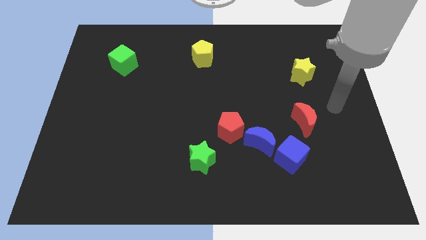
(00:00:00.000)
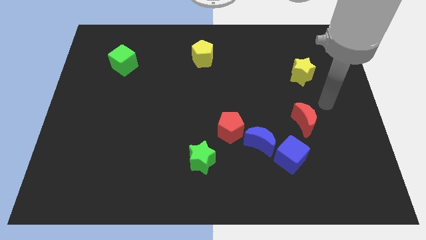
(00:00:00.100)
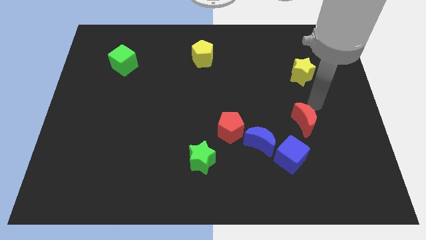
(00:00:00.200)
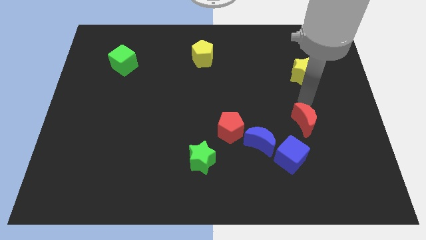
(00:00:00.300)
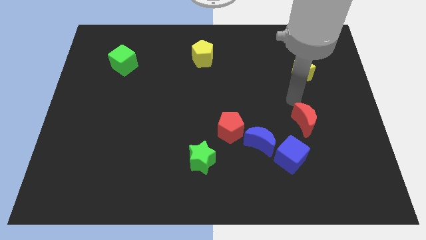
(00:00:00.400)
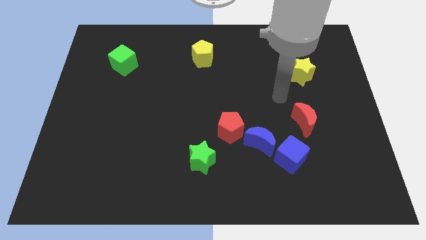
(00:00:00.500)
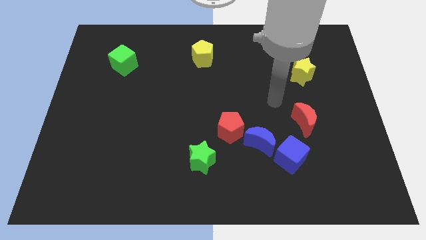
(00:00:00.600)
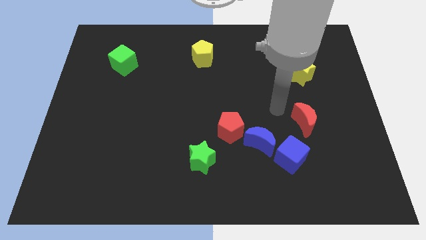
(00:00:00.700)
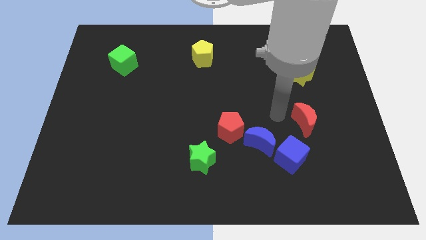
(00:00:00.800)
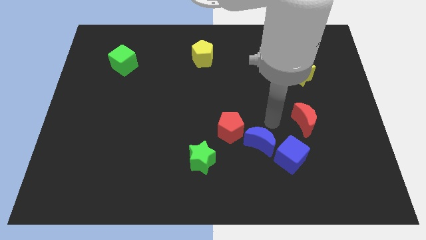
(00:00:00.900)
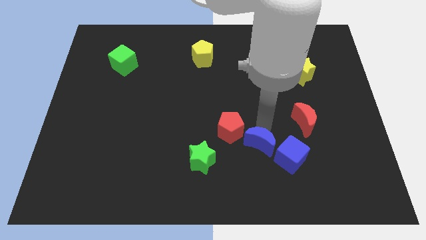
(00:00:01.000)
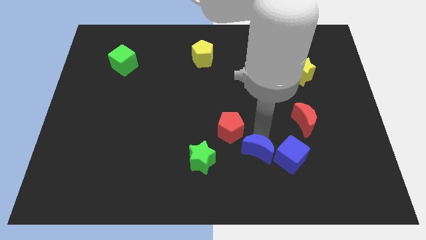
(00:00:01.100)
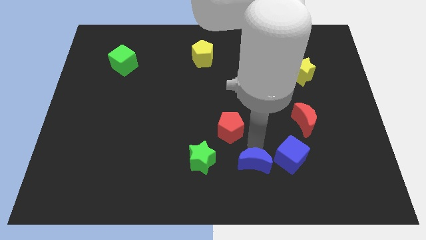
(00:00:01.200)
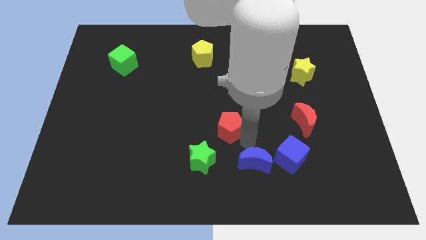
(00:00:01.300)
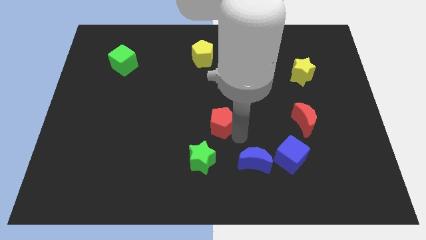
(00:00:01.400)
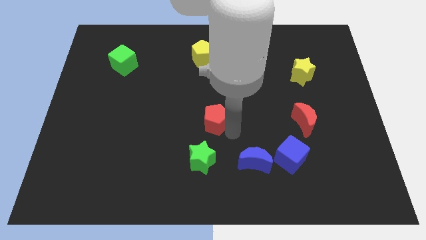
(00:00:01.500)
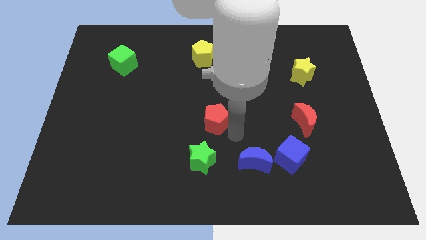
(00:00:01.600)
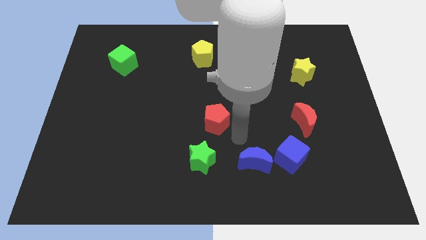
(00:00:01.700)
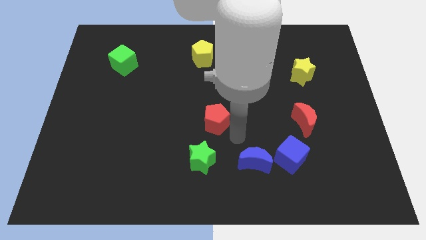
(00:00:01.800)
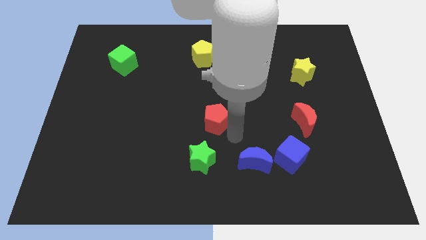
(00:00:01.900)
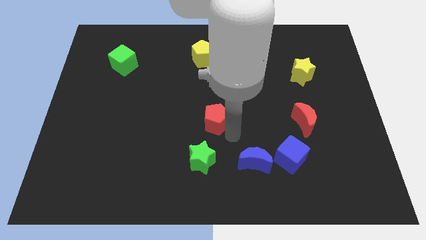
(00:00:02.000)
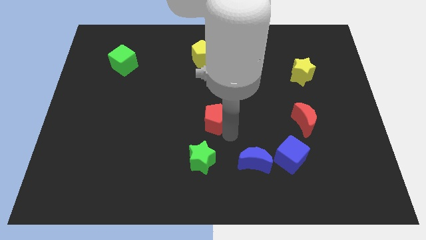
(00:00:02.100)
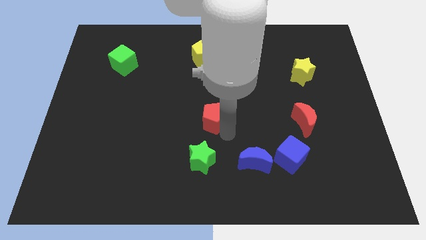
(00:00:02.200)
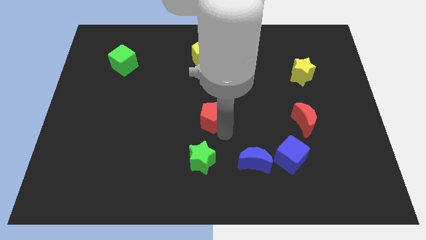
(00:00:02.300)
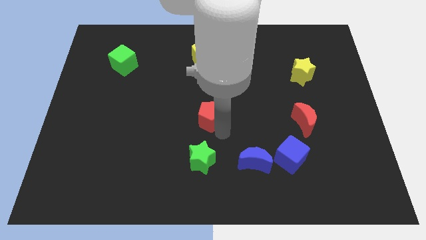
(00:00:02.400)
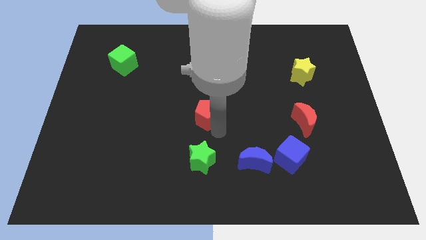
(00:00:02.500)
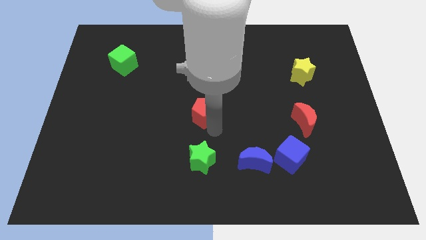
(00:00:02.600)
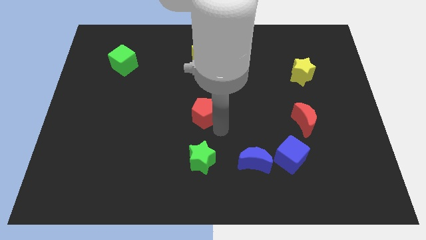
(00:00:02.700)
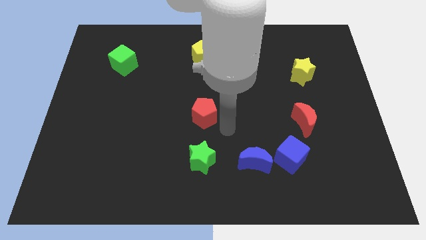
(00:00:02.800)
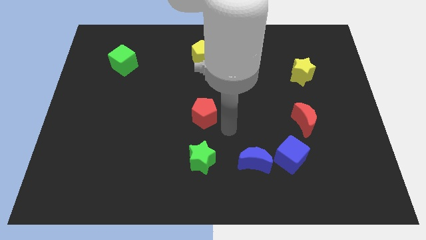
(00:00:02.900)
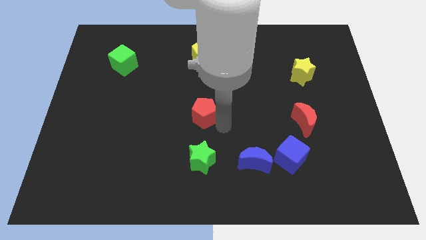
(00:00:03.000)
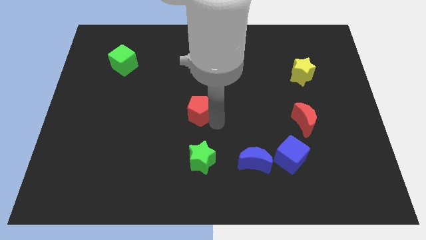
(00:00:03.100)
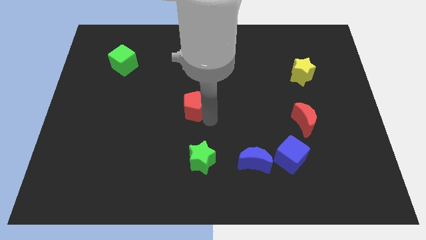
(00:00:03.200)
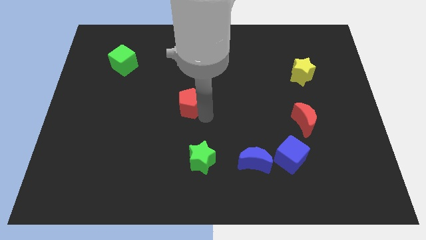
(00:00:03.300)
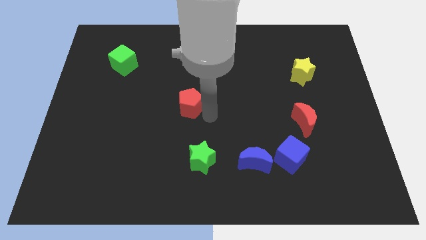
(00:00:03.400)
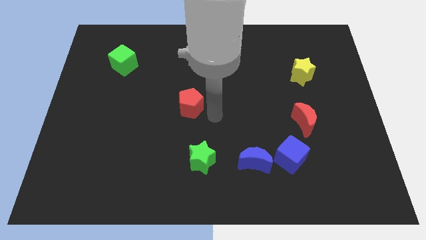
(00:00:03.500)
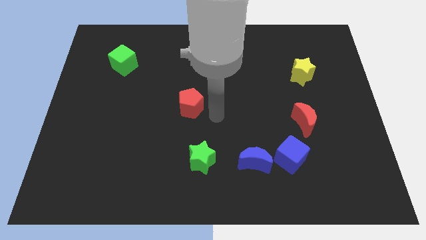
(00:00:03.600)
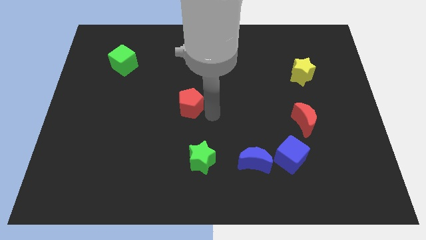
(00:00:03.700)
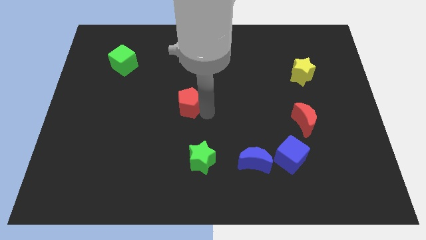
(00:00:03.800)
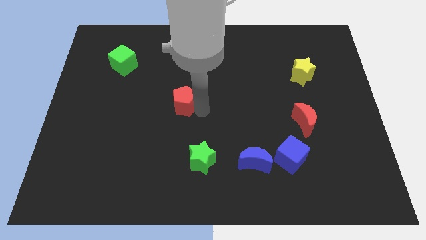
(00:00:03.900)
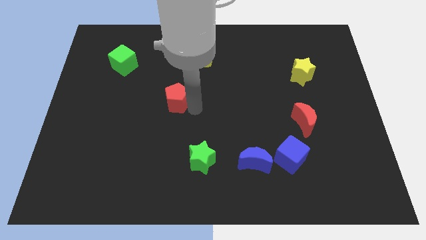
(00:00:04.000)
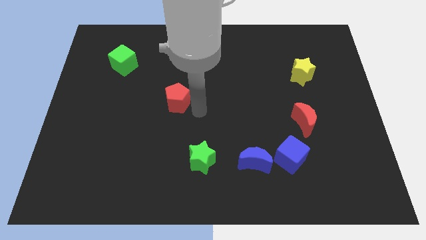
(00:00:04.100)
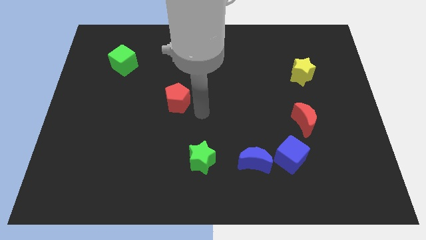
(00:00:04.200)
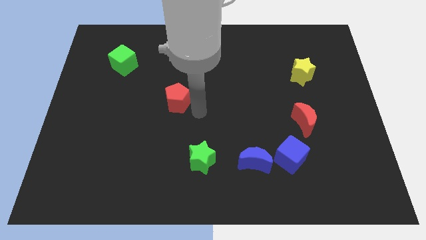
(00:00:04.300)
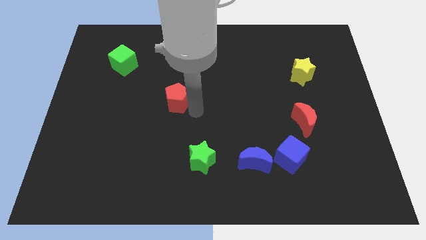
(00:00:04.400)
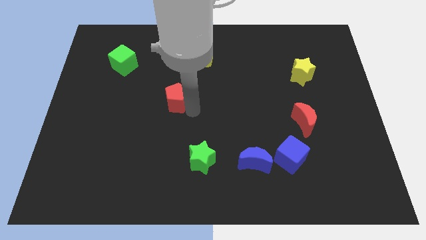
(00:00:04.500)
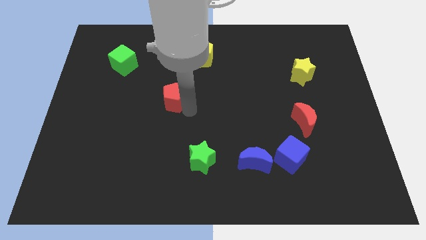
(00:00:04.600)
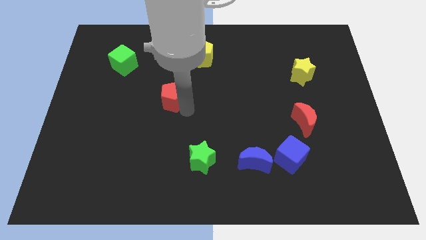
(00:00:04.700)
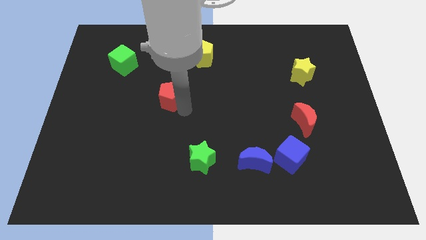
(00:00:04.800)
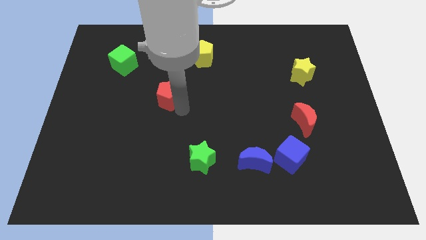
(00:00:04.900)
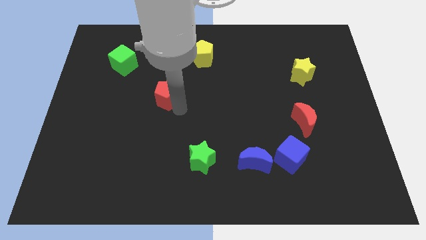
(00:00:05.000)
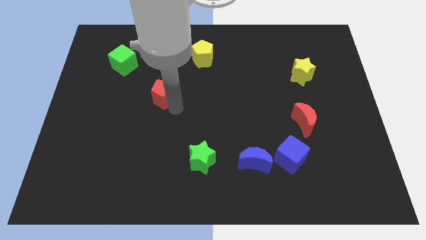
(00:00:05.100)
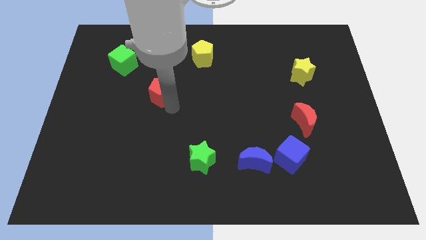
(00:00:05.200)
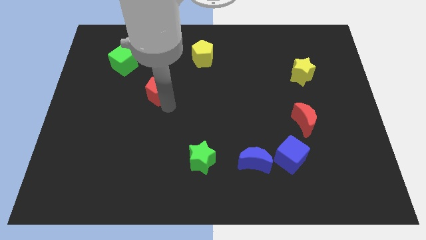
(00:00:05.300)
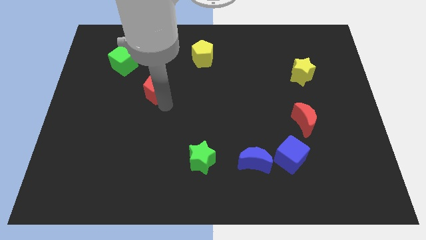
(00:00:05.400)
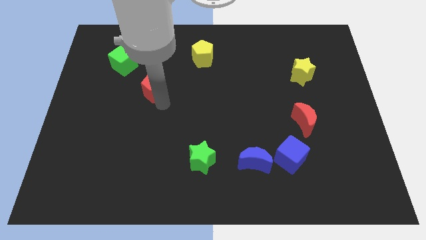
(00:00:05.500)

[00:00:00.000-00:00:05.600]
push the red pentagon to the bottom right side of the green cube

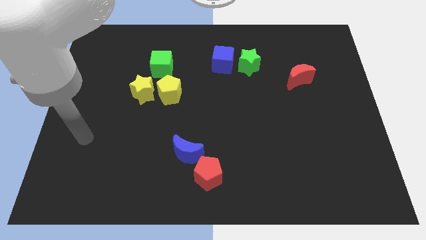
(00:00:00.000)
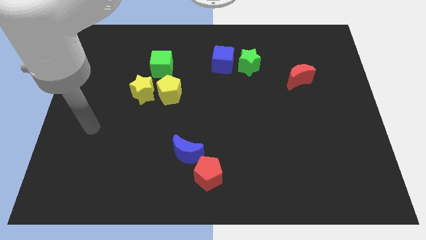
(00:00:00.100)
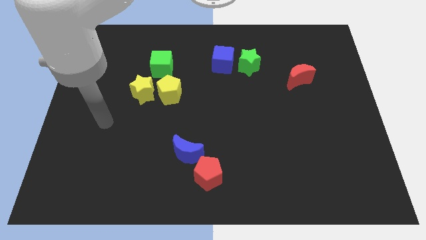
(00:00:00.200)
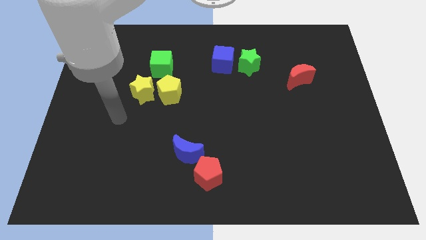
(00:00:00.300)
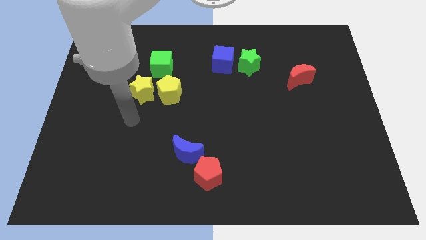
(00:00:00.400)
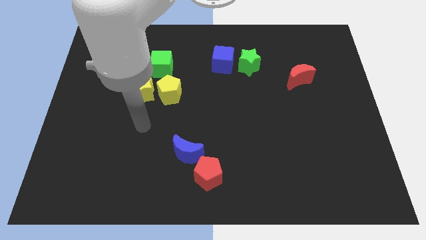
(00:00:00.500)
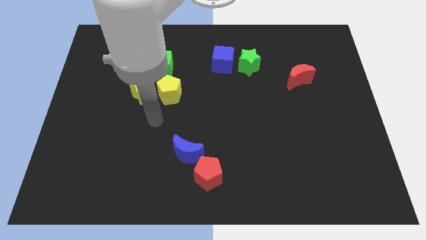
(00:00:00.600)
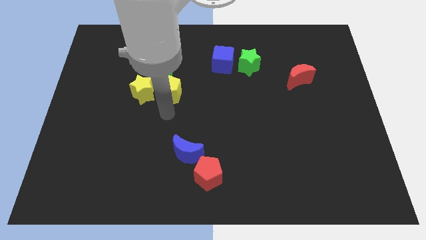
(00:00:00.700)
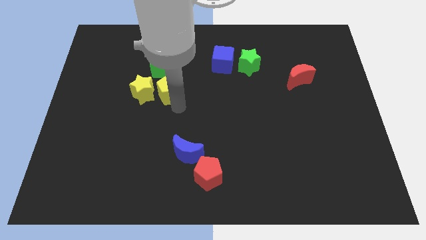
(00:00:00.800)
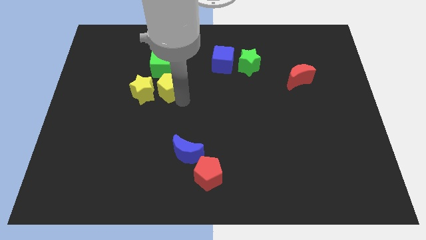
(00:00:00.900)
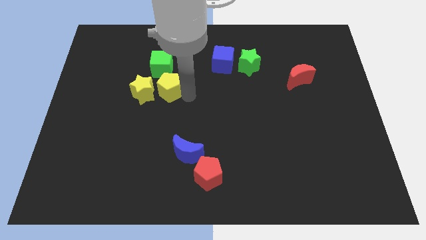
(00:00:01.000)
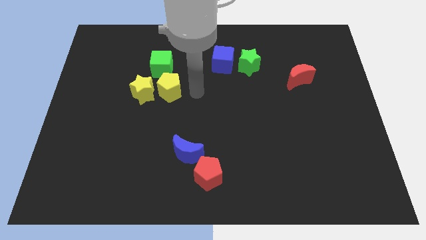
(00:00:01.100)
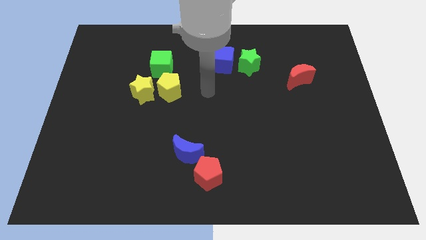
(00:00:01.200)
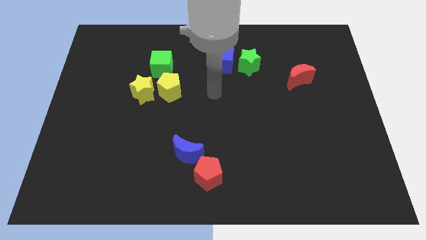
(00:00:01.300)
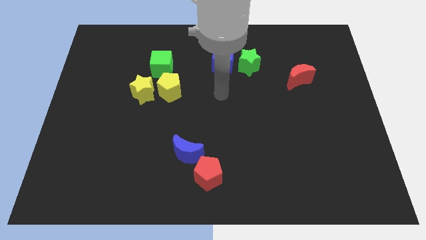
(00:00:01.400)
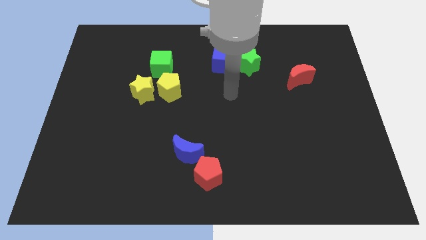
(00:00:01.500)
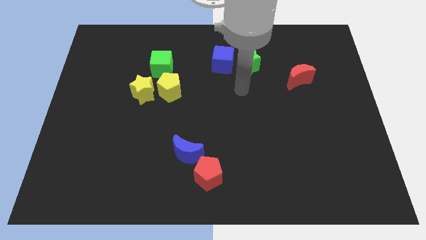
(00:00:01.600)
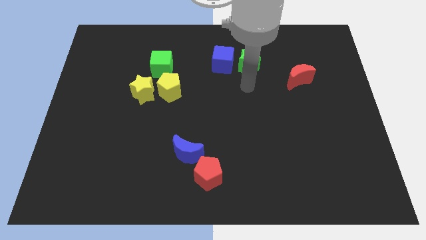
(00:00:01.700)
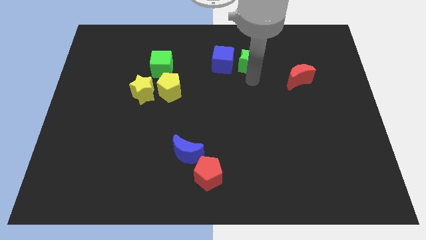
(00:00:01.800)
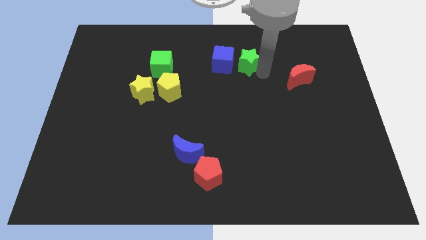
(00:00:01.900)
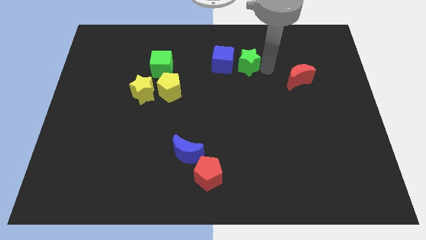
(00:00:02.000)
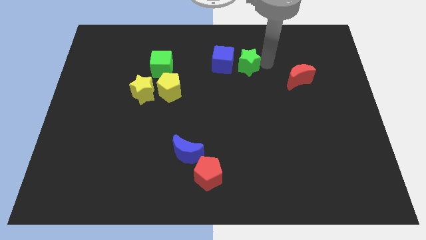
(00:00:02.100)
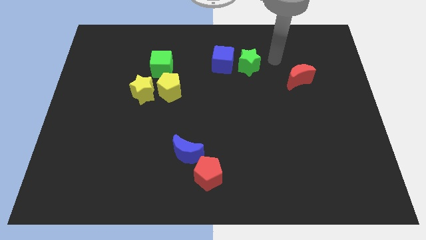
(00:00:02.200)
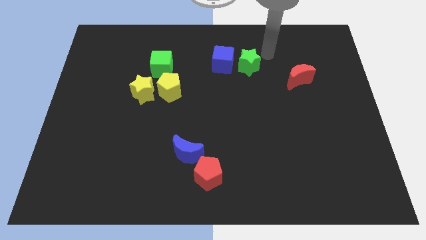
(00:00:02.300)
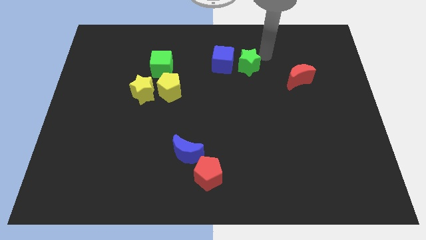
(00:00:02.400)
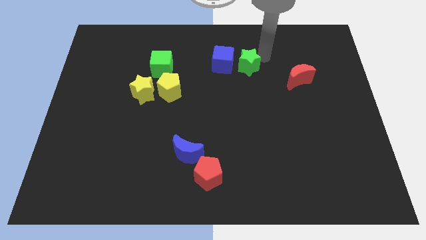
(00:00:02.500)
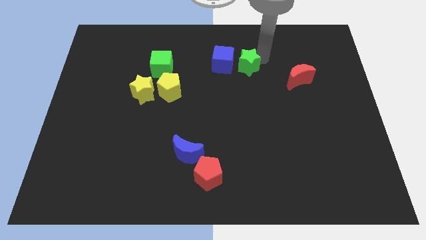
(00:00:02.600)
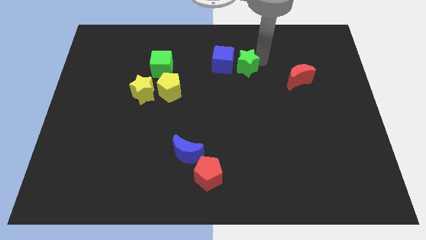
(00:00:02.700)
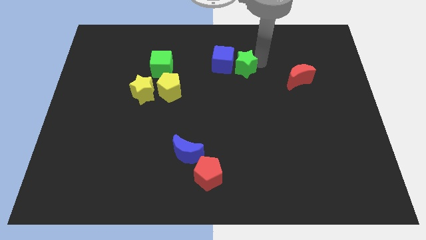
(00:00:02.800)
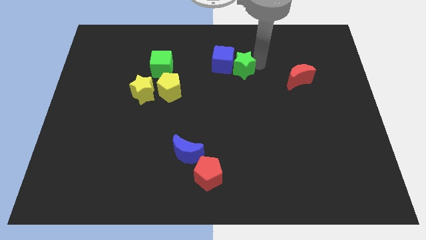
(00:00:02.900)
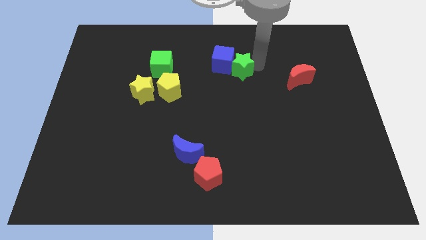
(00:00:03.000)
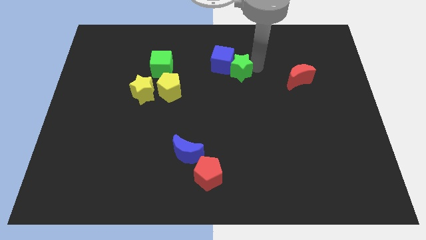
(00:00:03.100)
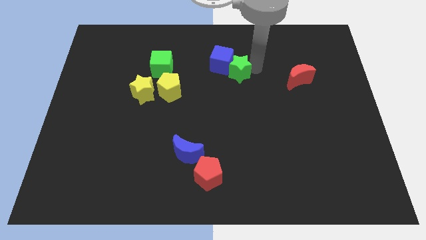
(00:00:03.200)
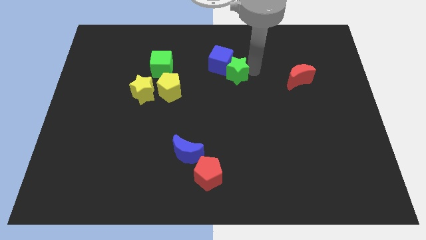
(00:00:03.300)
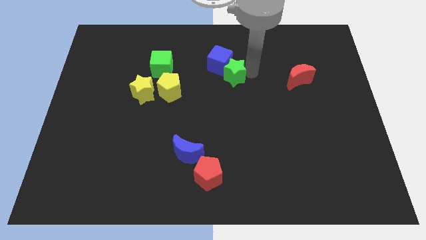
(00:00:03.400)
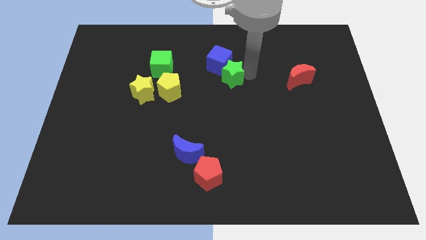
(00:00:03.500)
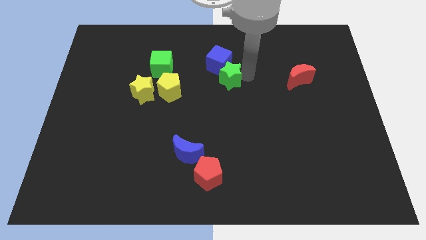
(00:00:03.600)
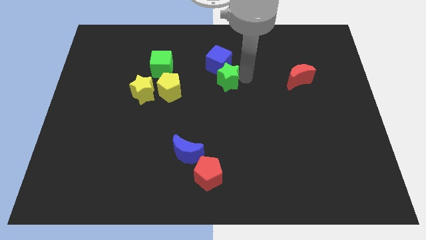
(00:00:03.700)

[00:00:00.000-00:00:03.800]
put the green star to the right of the yellow pentagon
